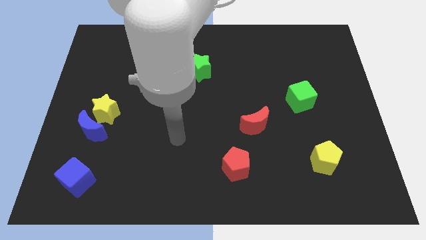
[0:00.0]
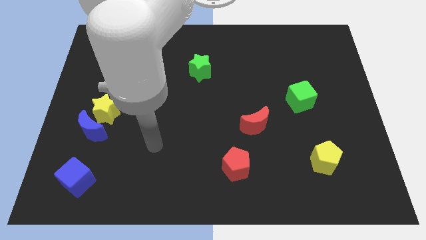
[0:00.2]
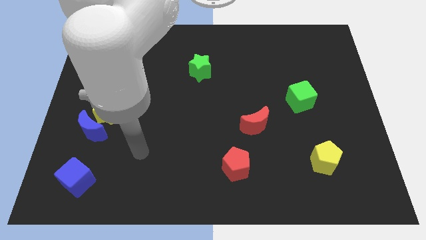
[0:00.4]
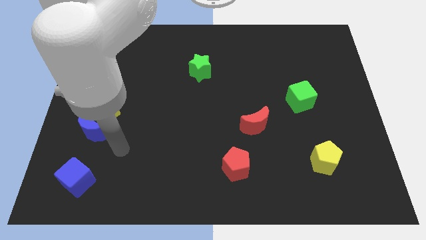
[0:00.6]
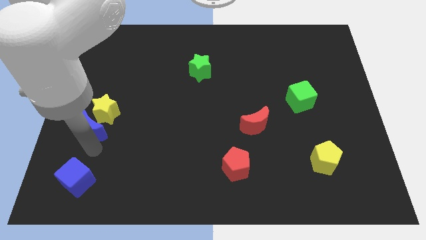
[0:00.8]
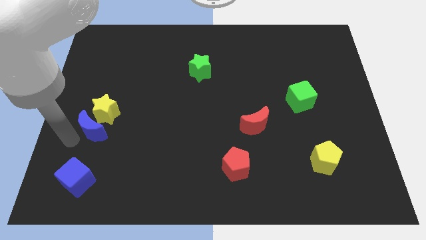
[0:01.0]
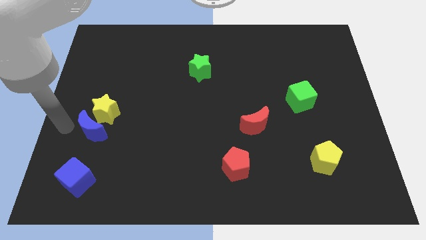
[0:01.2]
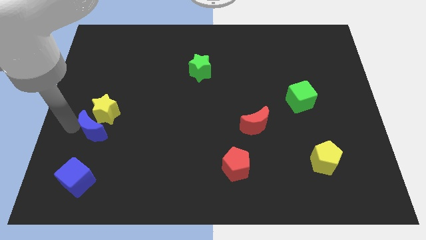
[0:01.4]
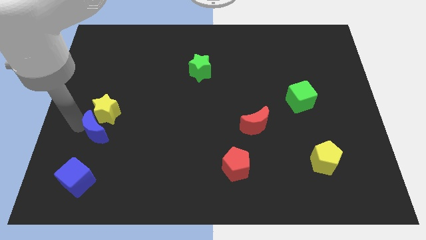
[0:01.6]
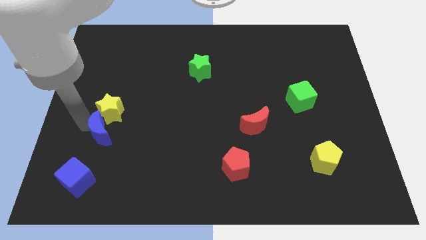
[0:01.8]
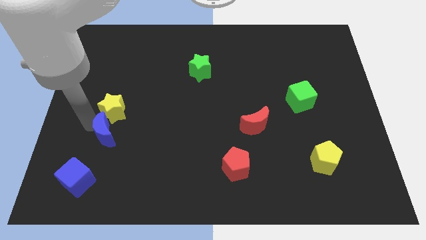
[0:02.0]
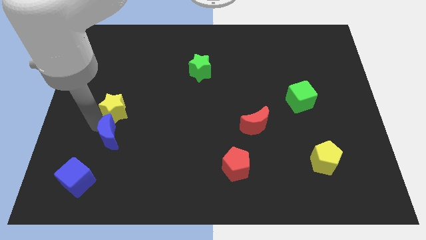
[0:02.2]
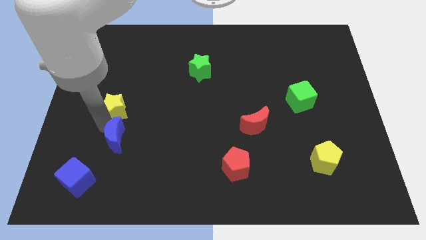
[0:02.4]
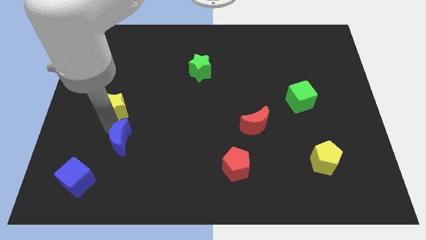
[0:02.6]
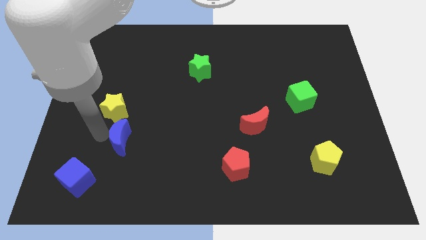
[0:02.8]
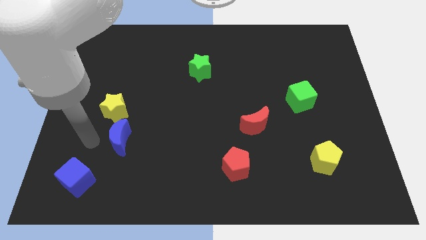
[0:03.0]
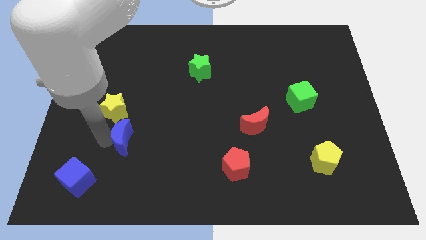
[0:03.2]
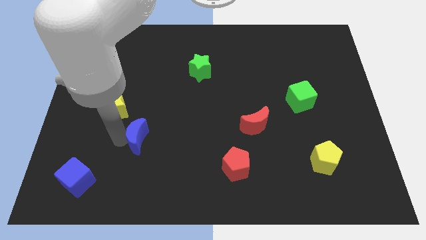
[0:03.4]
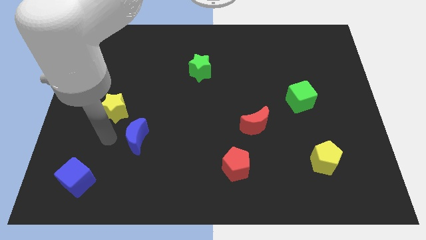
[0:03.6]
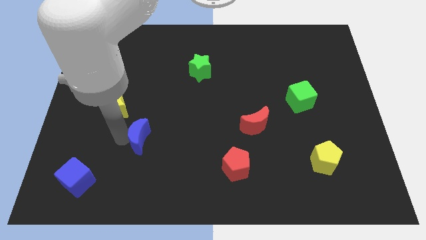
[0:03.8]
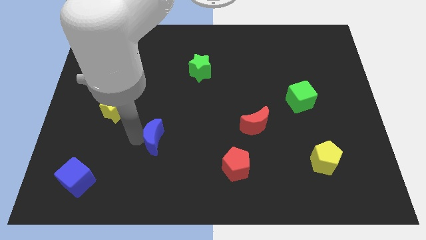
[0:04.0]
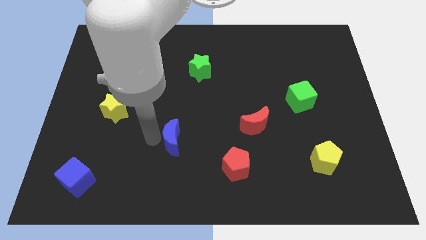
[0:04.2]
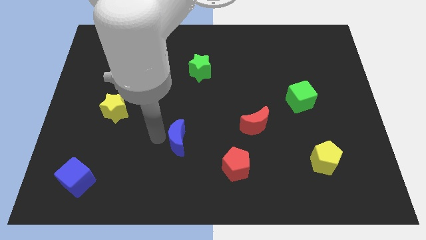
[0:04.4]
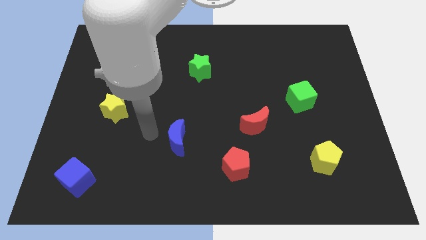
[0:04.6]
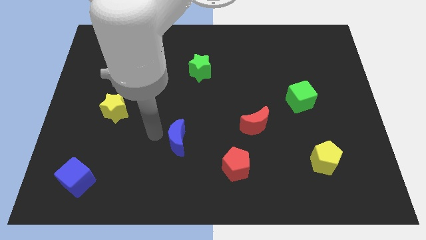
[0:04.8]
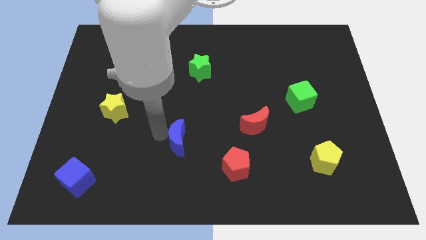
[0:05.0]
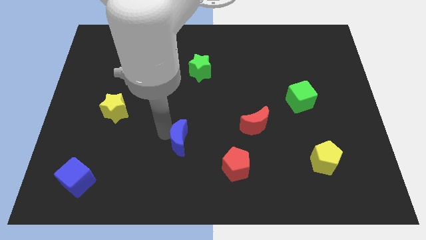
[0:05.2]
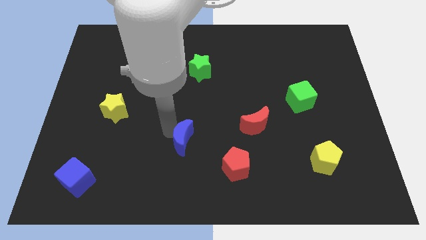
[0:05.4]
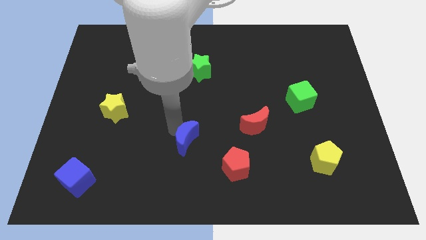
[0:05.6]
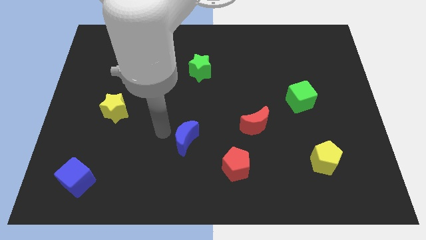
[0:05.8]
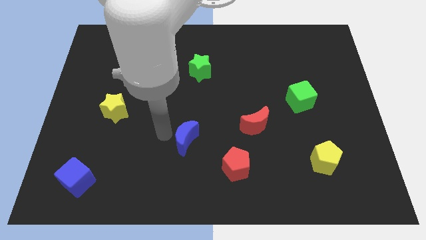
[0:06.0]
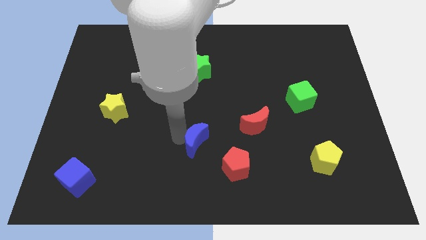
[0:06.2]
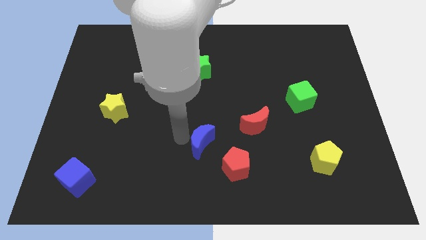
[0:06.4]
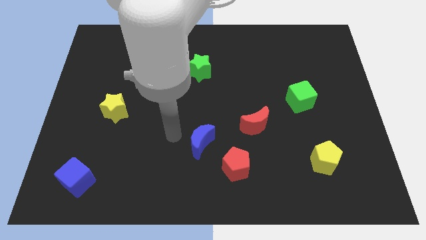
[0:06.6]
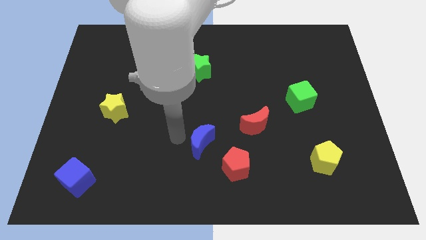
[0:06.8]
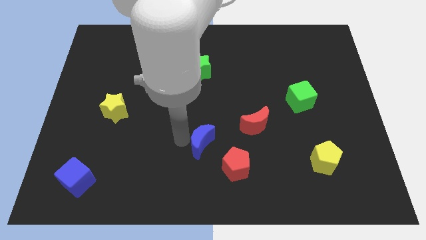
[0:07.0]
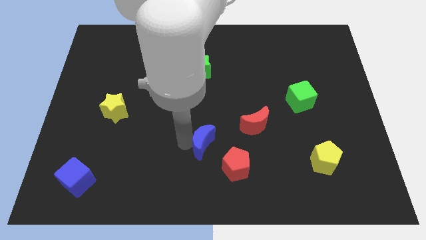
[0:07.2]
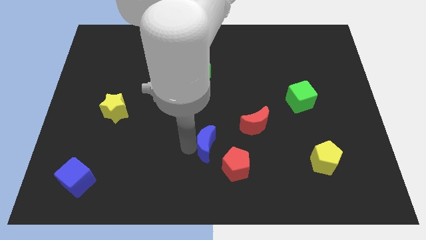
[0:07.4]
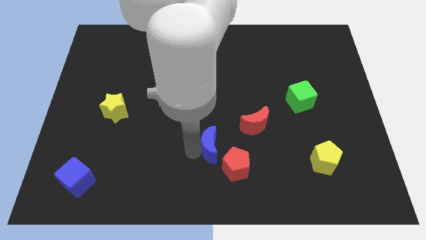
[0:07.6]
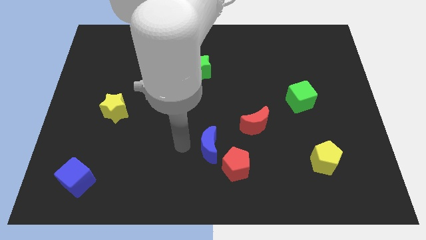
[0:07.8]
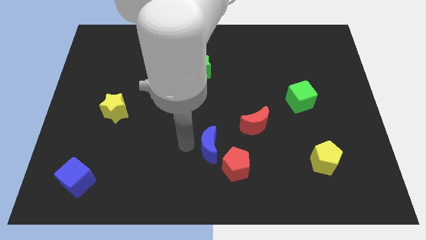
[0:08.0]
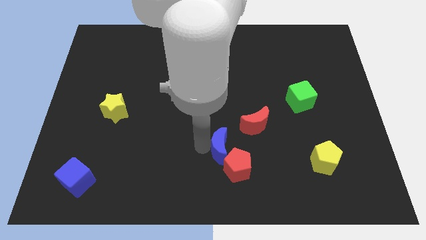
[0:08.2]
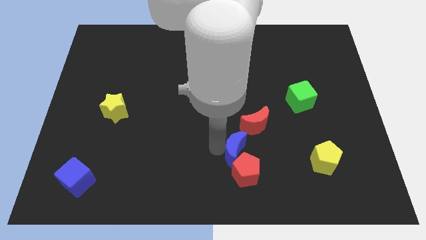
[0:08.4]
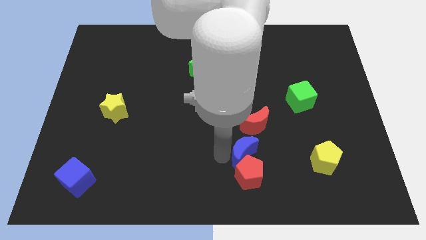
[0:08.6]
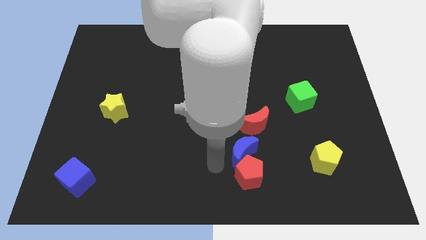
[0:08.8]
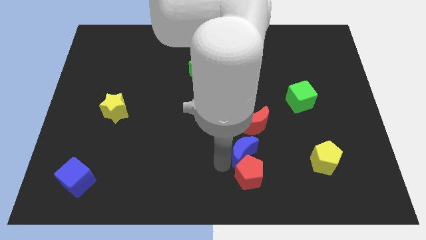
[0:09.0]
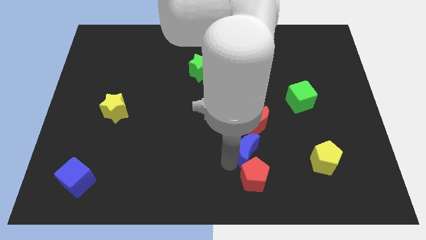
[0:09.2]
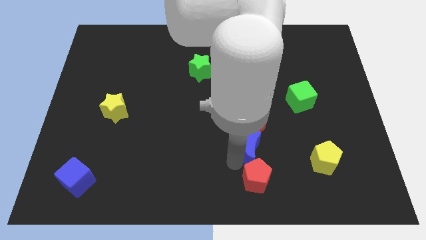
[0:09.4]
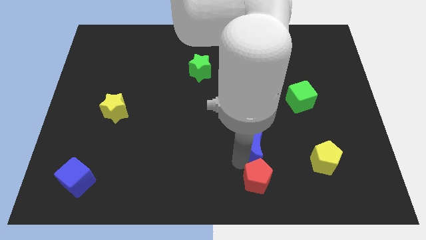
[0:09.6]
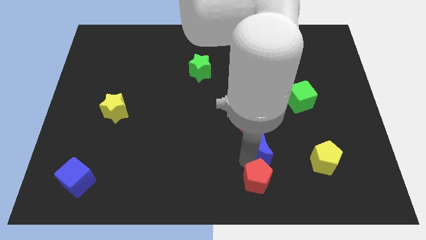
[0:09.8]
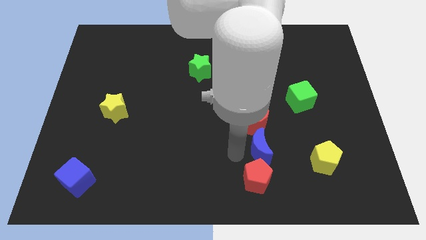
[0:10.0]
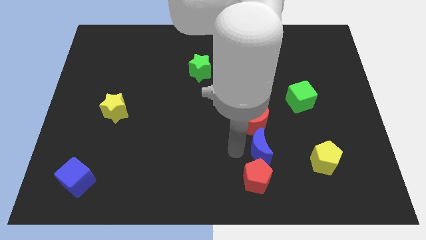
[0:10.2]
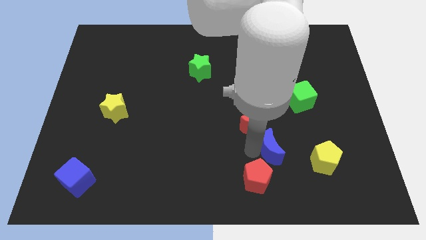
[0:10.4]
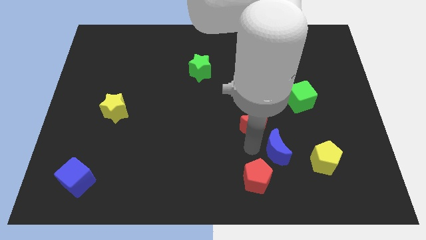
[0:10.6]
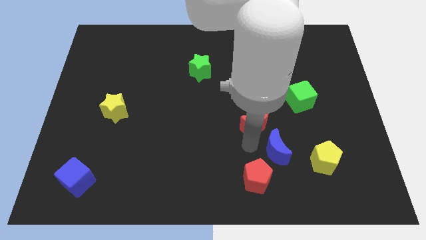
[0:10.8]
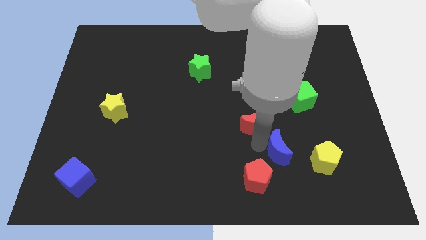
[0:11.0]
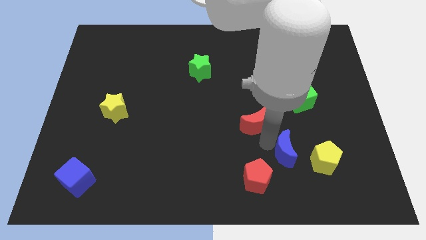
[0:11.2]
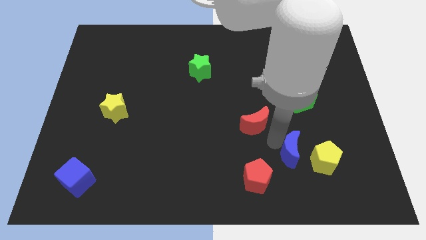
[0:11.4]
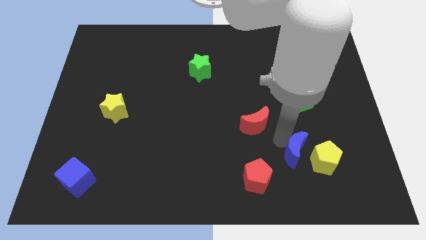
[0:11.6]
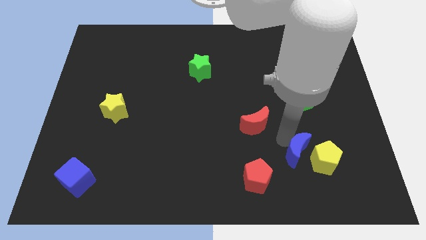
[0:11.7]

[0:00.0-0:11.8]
put the blue moon next to the yellow pentagon
